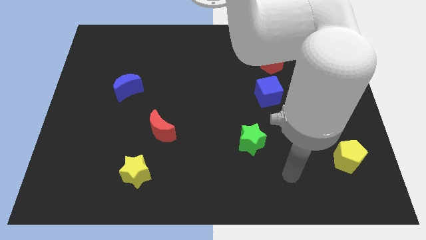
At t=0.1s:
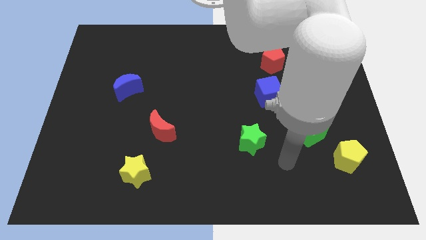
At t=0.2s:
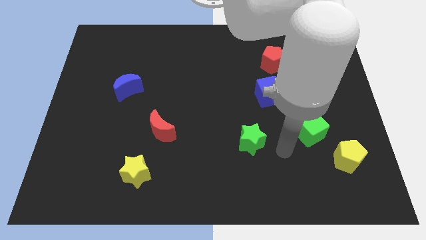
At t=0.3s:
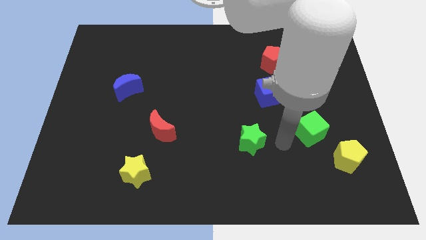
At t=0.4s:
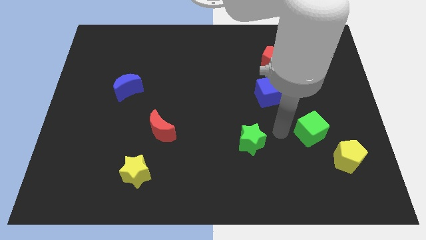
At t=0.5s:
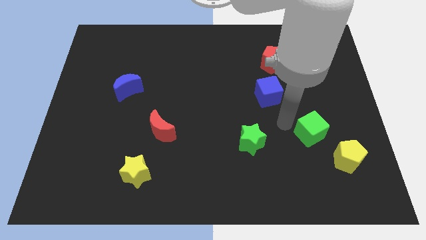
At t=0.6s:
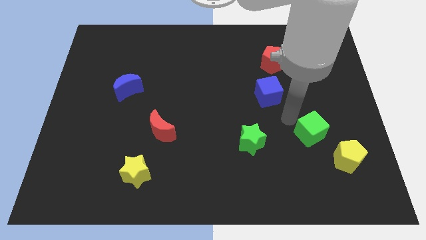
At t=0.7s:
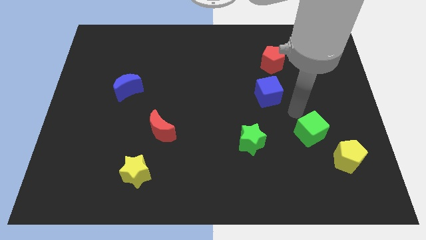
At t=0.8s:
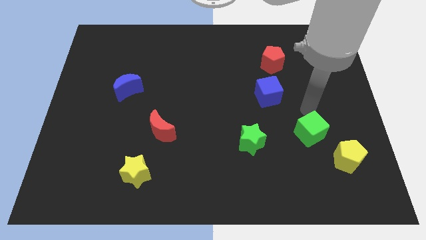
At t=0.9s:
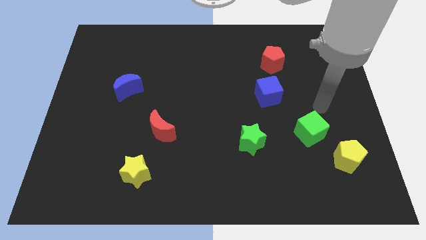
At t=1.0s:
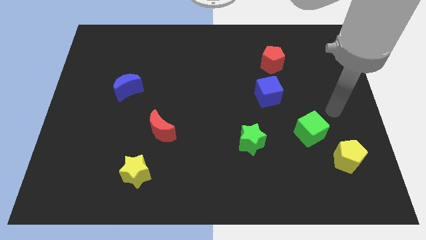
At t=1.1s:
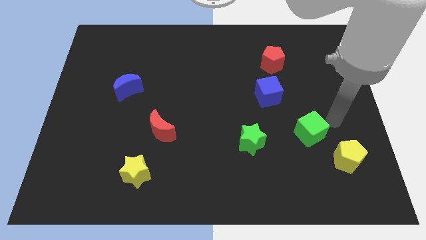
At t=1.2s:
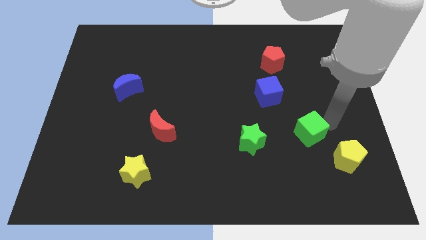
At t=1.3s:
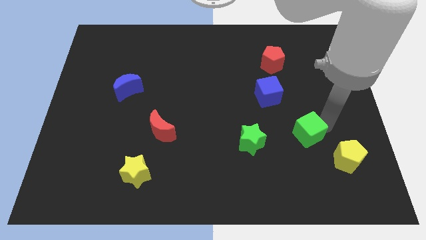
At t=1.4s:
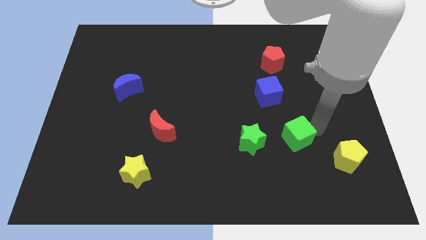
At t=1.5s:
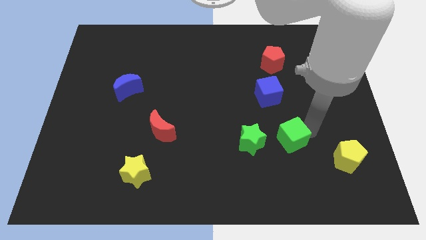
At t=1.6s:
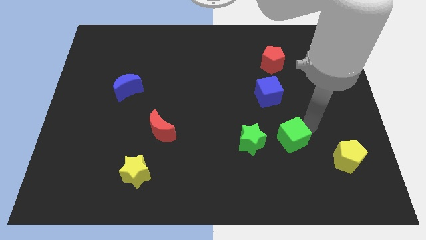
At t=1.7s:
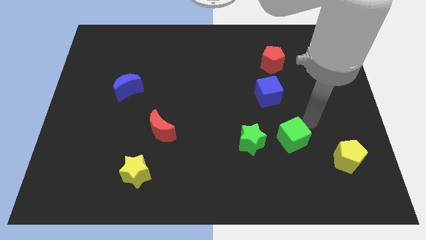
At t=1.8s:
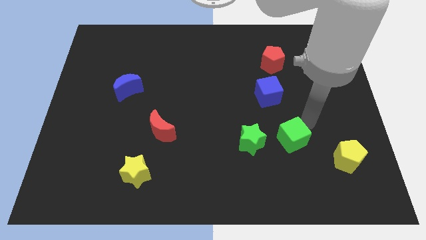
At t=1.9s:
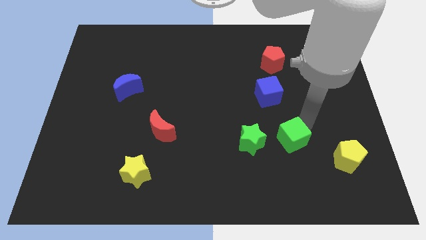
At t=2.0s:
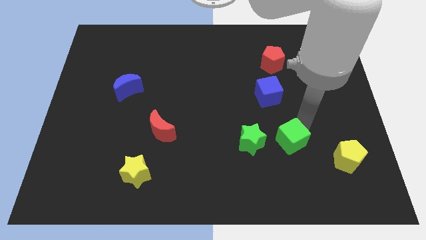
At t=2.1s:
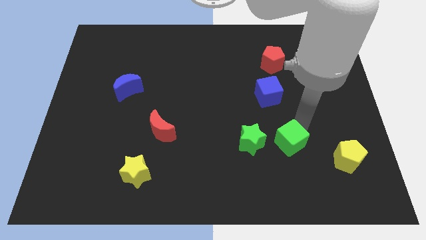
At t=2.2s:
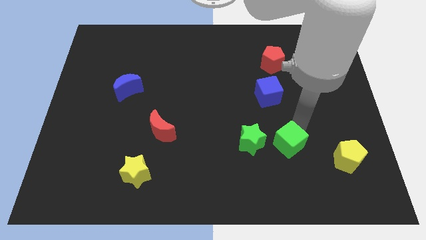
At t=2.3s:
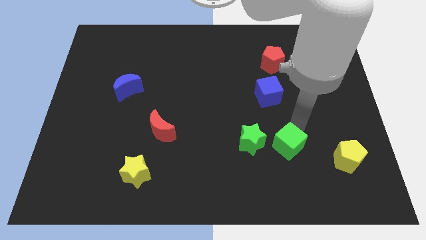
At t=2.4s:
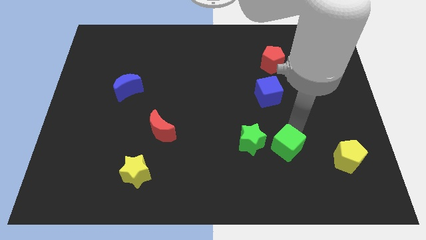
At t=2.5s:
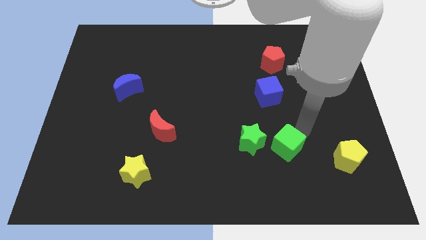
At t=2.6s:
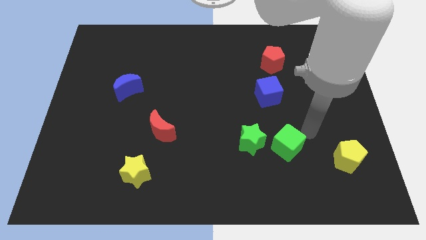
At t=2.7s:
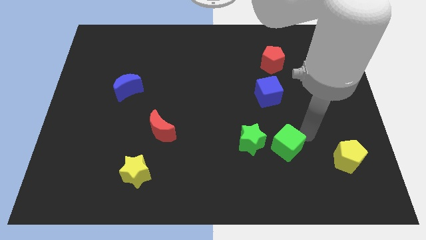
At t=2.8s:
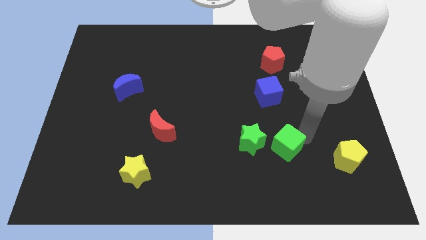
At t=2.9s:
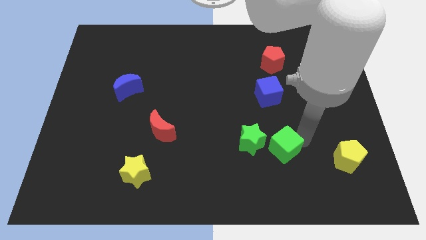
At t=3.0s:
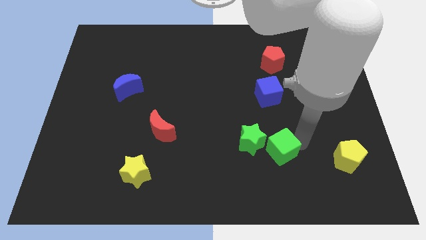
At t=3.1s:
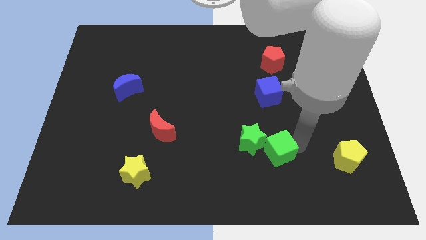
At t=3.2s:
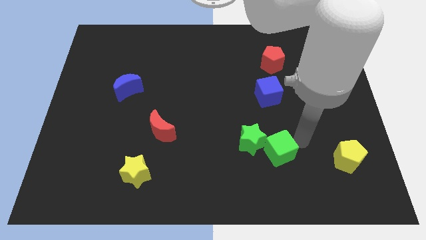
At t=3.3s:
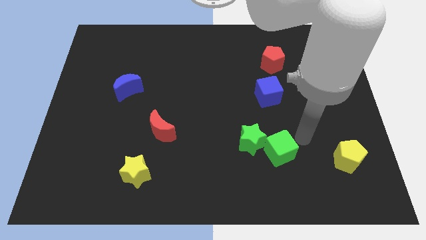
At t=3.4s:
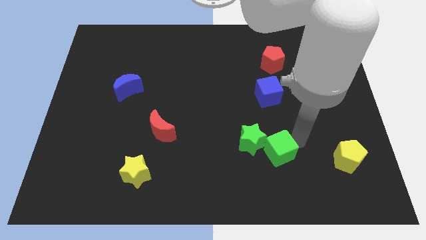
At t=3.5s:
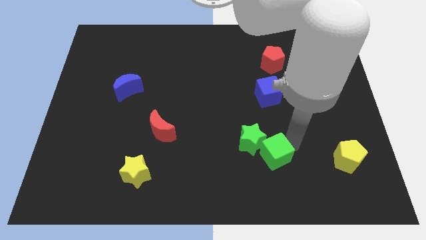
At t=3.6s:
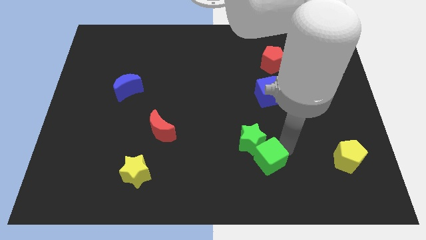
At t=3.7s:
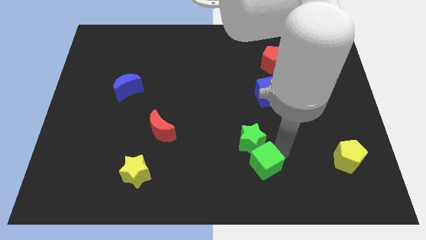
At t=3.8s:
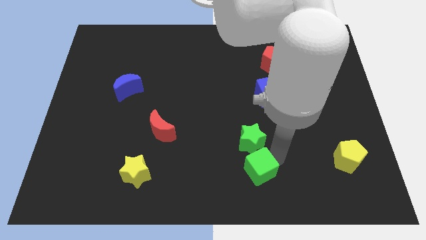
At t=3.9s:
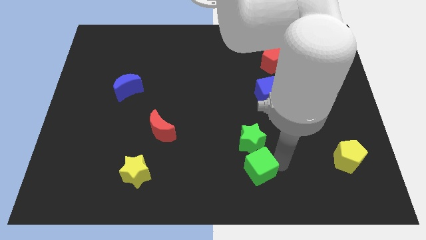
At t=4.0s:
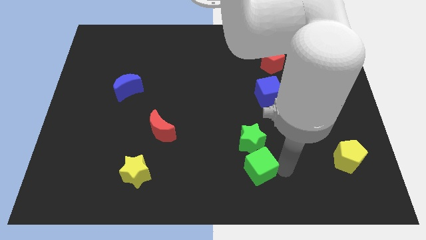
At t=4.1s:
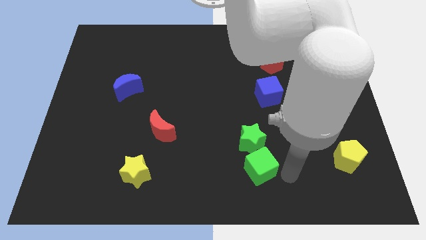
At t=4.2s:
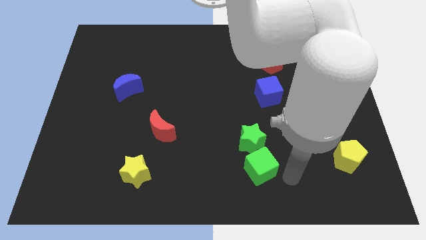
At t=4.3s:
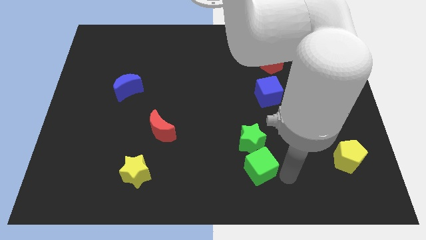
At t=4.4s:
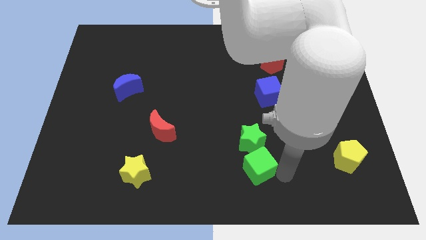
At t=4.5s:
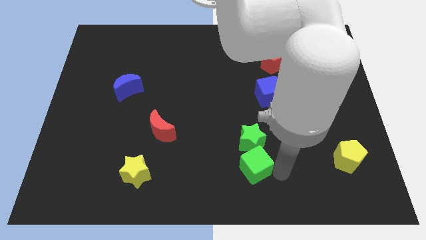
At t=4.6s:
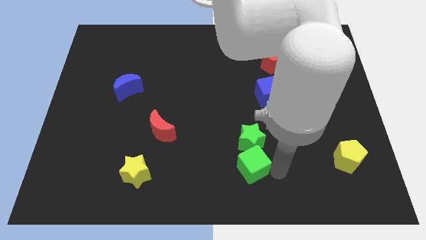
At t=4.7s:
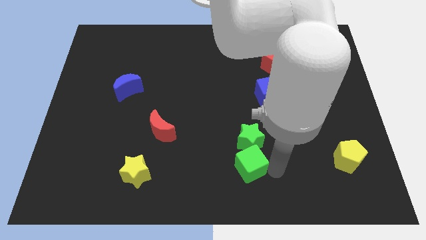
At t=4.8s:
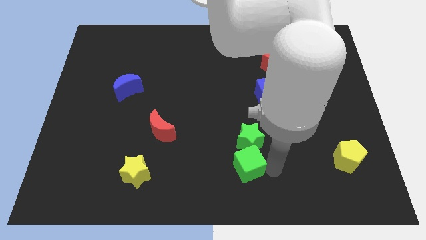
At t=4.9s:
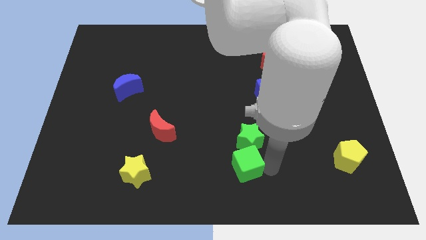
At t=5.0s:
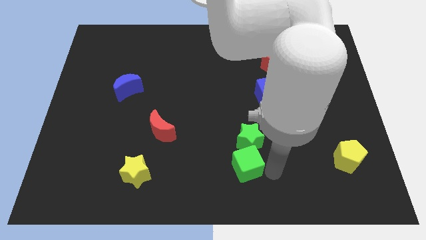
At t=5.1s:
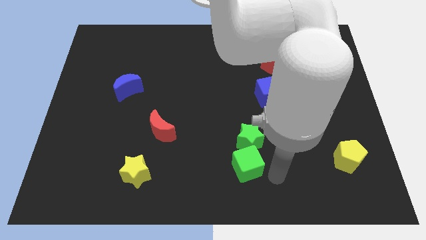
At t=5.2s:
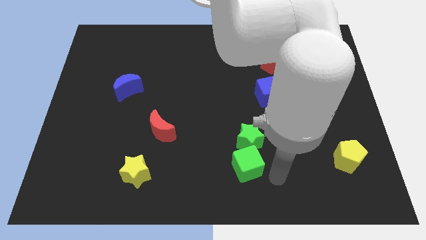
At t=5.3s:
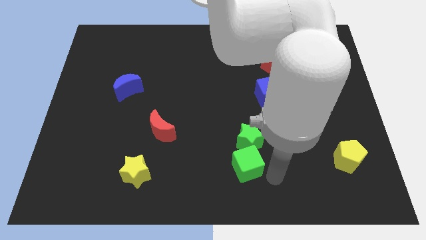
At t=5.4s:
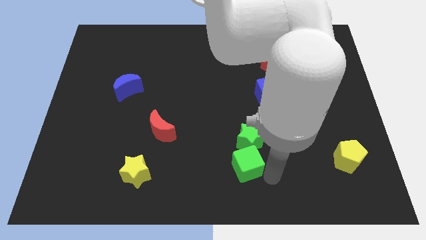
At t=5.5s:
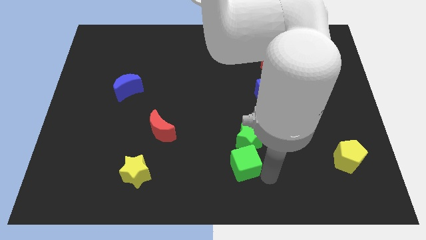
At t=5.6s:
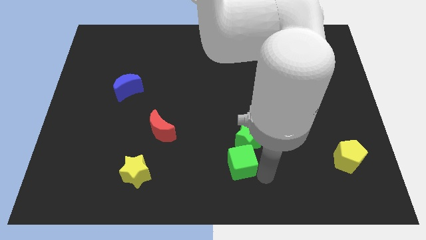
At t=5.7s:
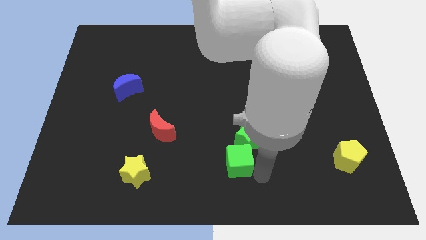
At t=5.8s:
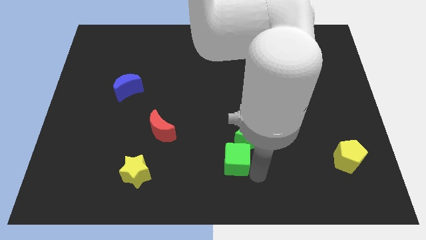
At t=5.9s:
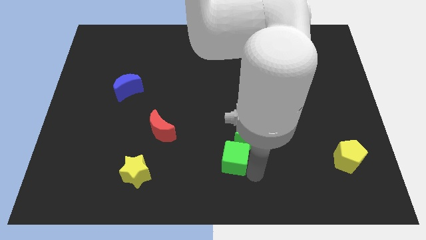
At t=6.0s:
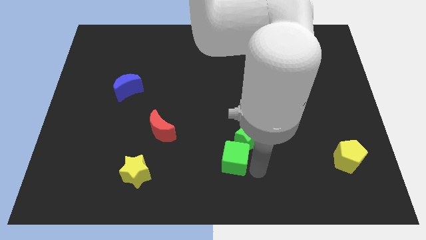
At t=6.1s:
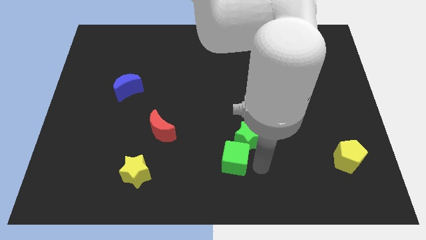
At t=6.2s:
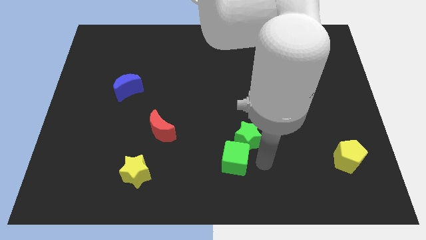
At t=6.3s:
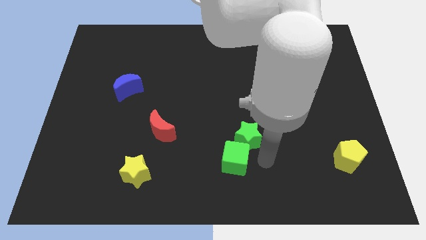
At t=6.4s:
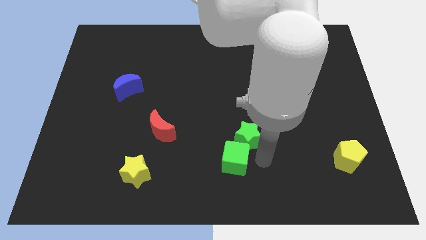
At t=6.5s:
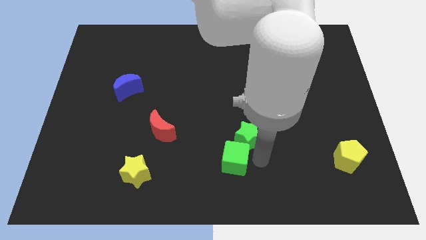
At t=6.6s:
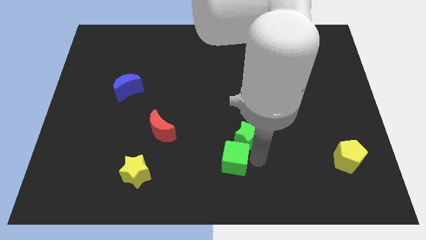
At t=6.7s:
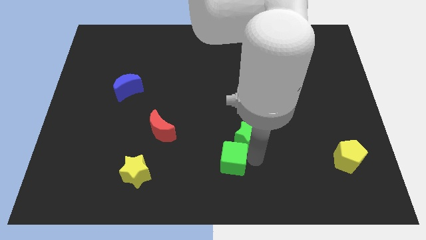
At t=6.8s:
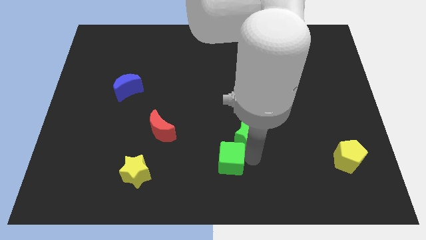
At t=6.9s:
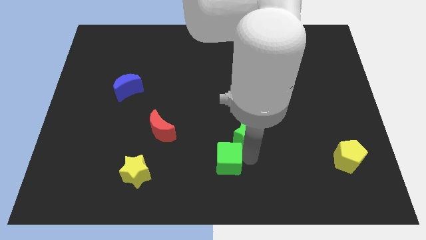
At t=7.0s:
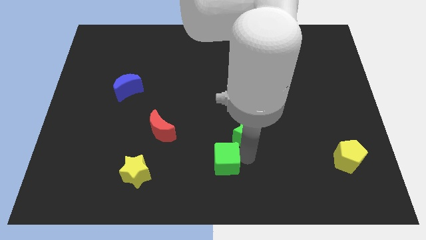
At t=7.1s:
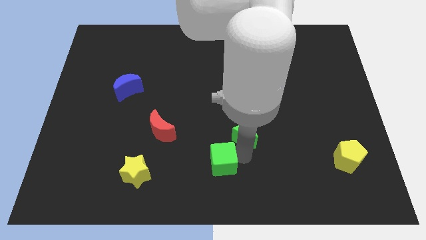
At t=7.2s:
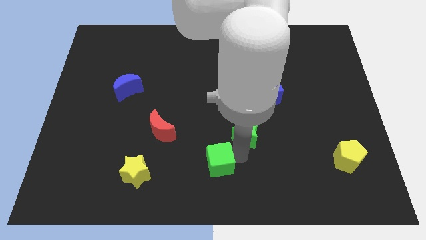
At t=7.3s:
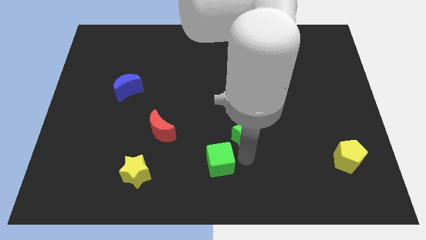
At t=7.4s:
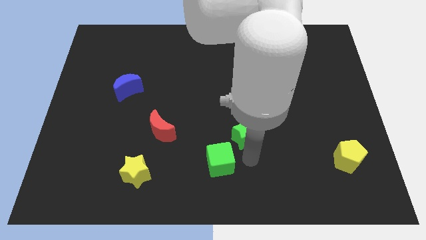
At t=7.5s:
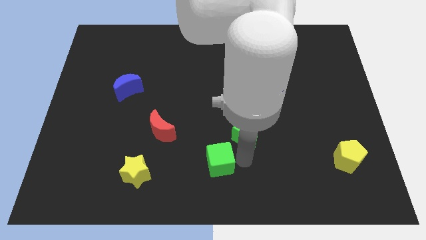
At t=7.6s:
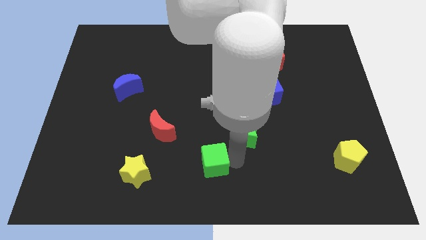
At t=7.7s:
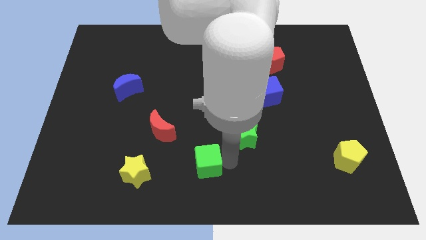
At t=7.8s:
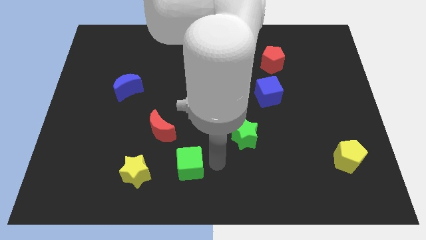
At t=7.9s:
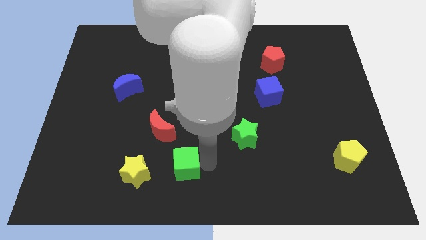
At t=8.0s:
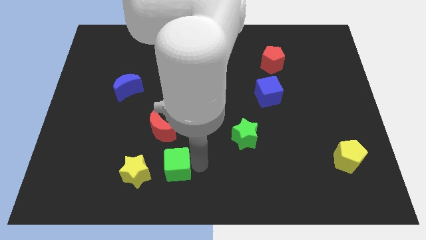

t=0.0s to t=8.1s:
put the green cube to the bottom side of the red moon
